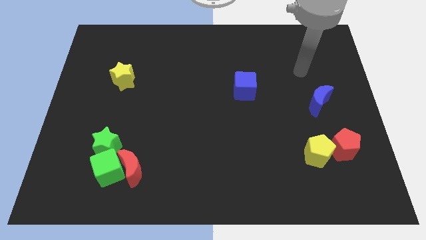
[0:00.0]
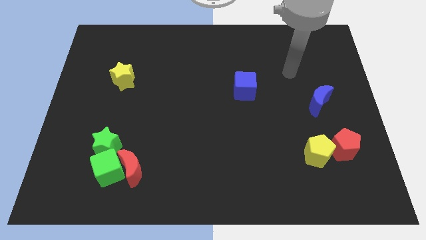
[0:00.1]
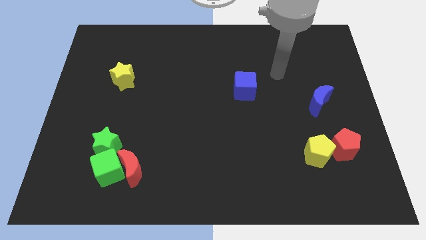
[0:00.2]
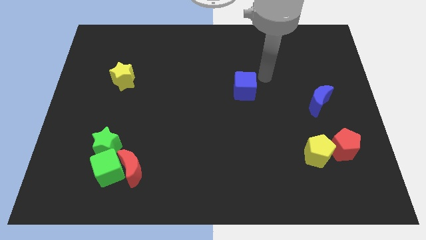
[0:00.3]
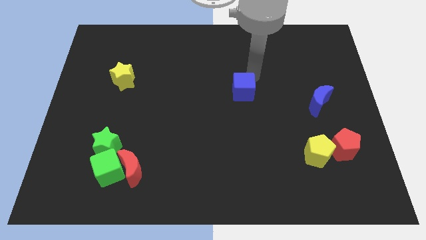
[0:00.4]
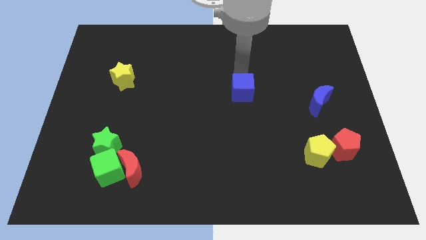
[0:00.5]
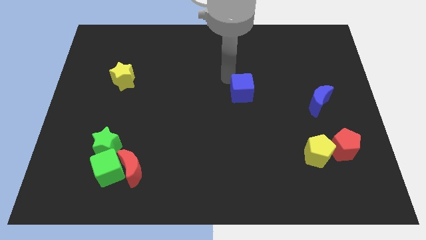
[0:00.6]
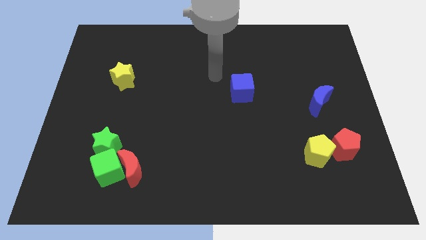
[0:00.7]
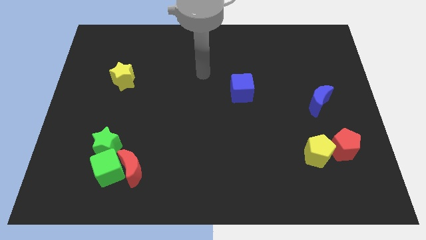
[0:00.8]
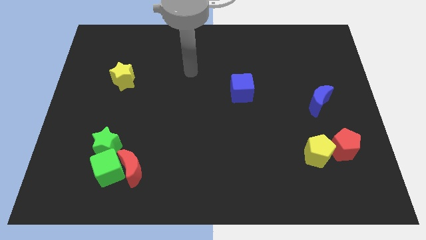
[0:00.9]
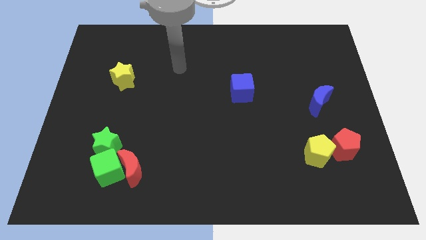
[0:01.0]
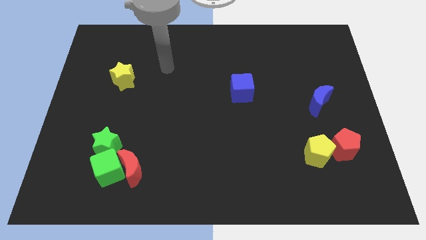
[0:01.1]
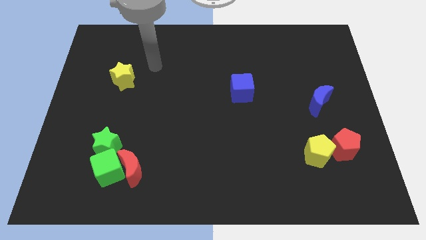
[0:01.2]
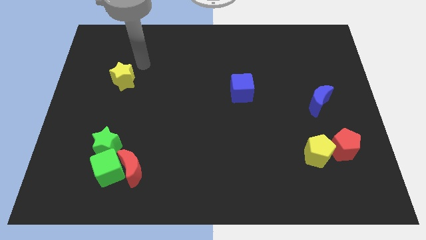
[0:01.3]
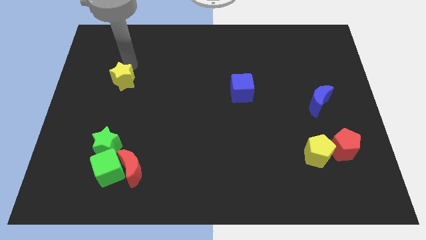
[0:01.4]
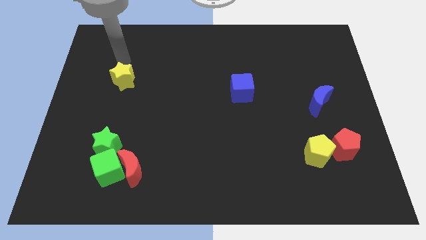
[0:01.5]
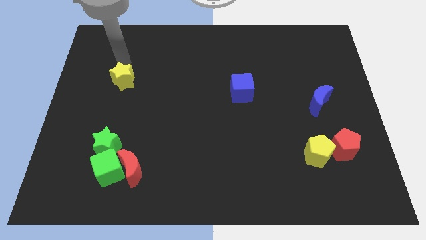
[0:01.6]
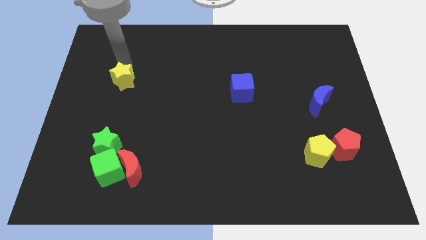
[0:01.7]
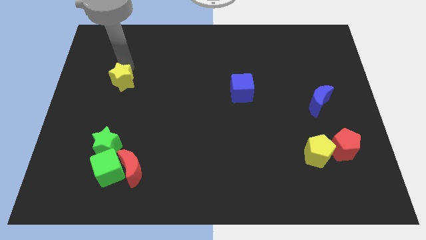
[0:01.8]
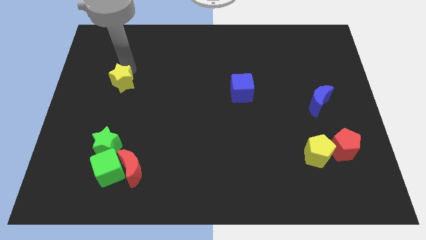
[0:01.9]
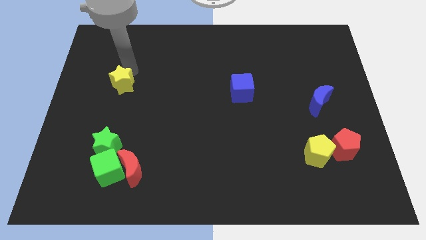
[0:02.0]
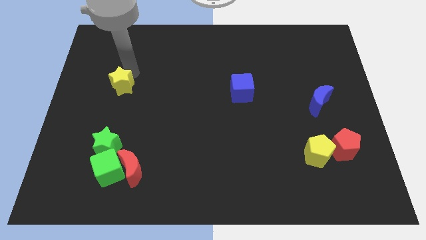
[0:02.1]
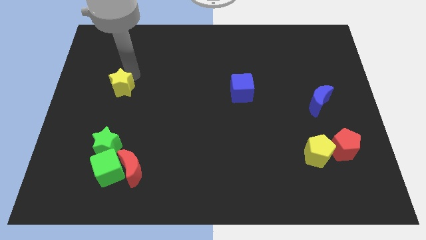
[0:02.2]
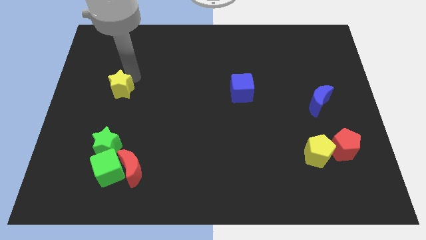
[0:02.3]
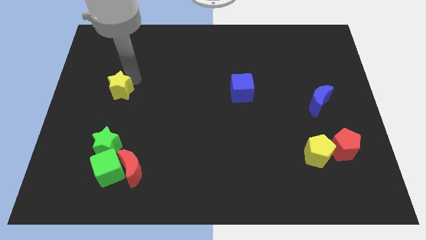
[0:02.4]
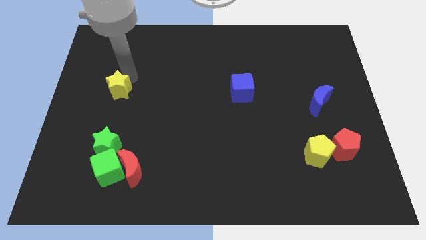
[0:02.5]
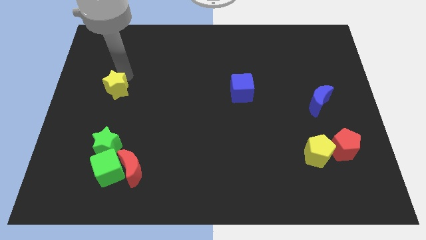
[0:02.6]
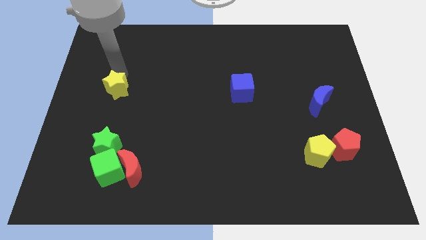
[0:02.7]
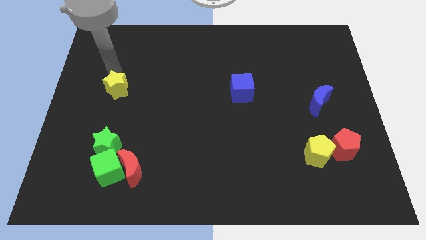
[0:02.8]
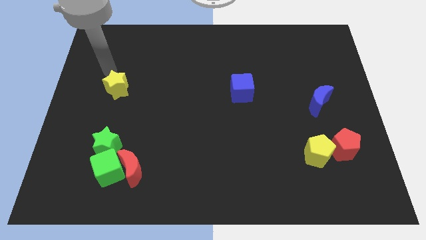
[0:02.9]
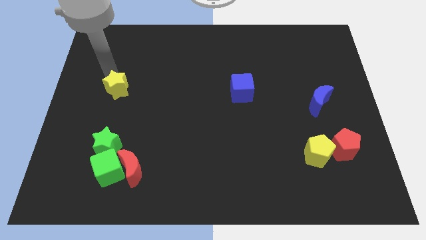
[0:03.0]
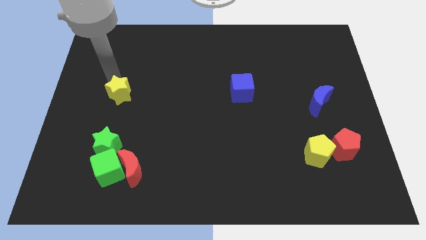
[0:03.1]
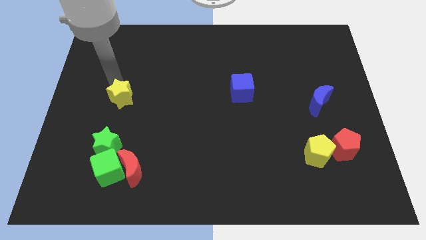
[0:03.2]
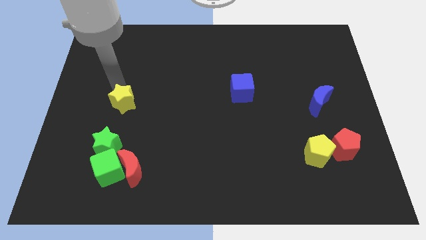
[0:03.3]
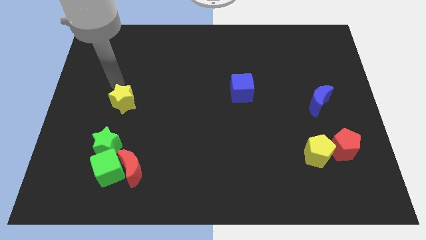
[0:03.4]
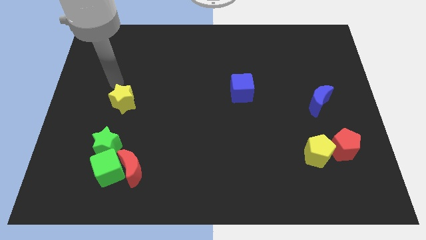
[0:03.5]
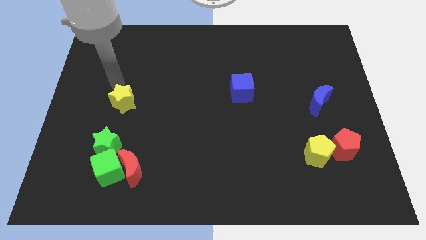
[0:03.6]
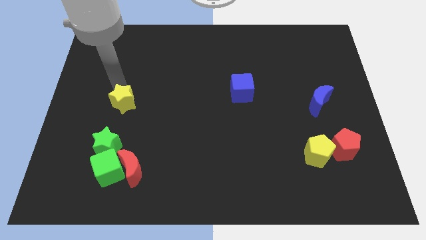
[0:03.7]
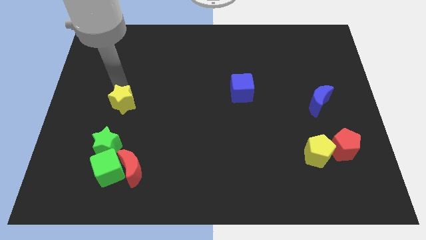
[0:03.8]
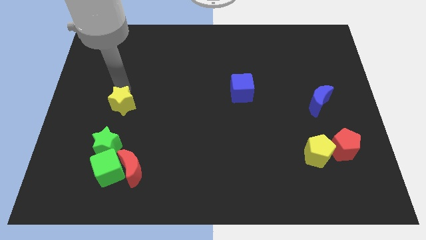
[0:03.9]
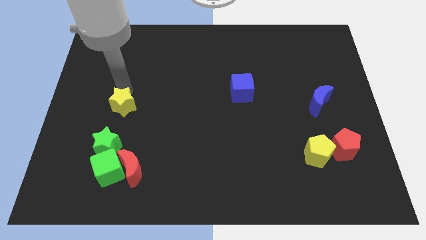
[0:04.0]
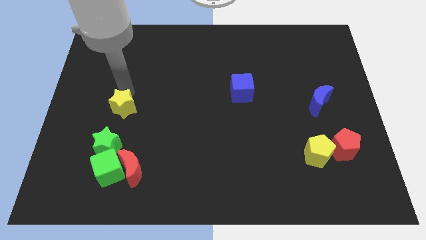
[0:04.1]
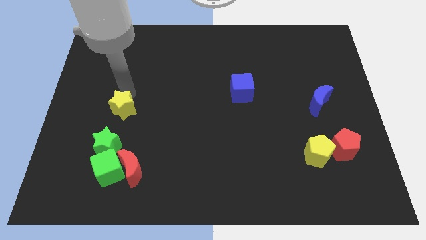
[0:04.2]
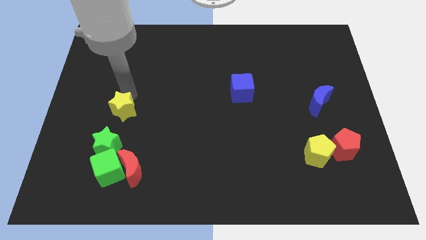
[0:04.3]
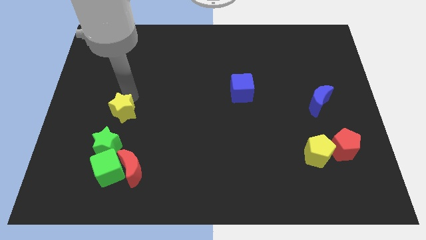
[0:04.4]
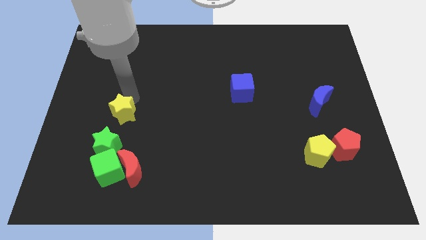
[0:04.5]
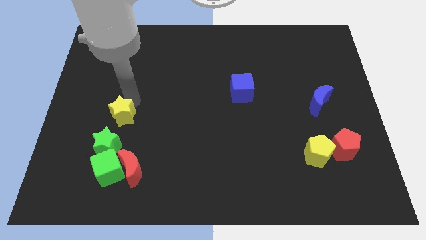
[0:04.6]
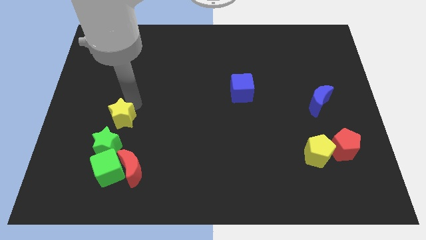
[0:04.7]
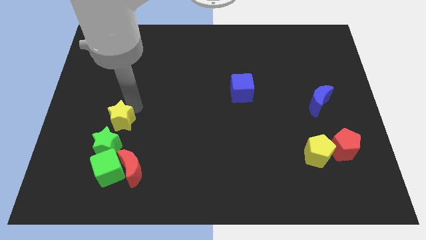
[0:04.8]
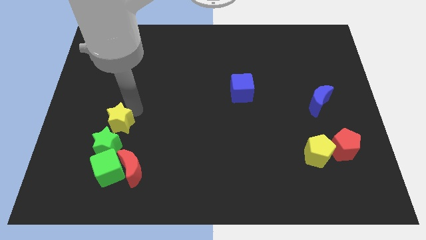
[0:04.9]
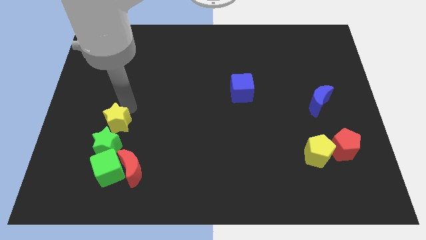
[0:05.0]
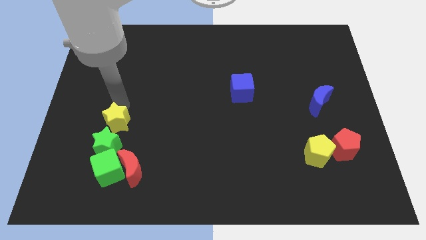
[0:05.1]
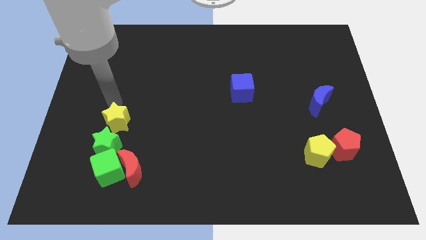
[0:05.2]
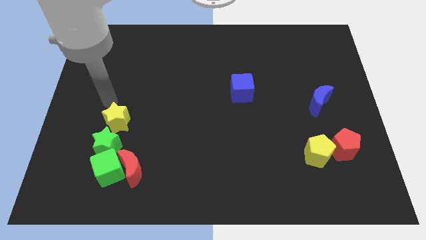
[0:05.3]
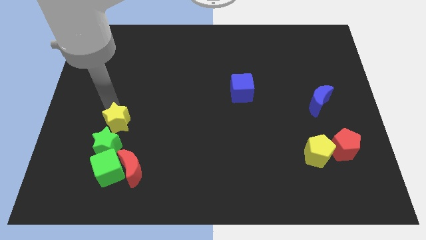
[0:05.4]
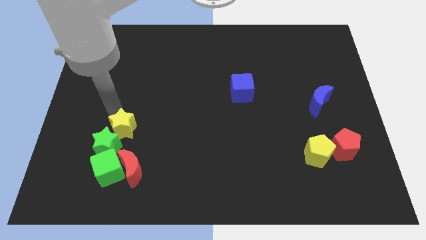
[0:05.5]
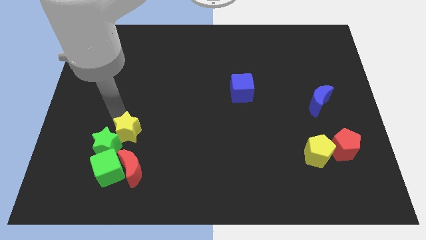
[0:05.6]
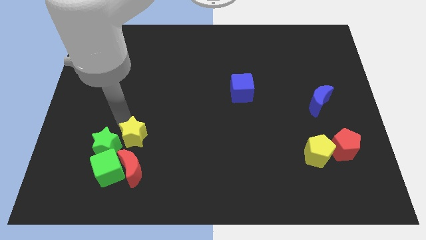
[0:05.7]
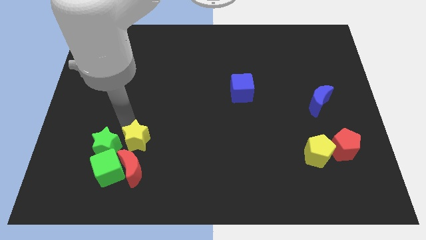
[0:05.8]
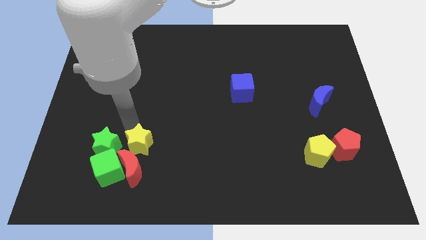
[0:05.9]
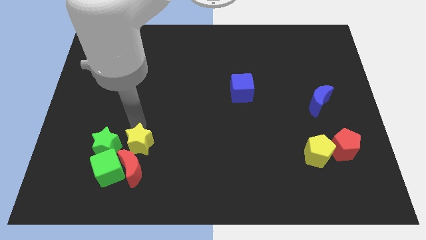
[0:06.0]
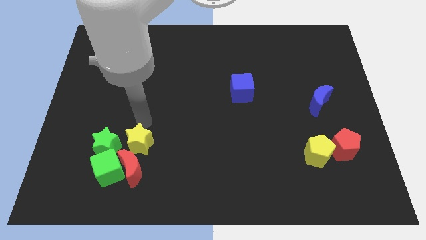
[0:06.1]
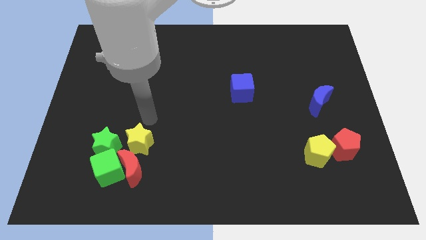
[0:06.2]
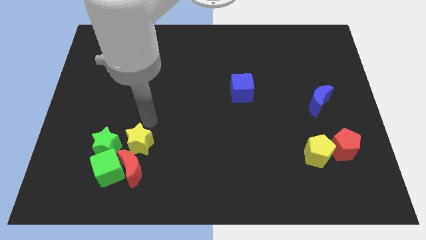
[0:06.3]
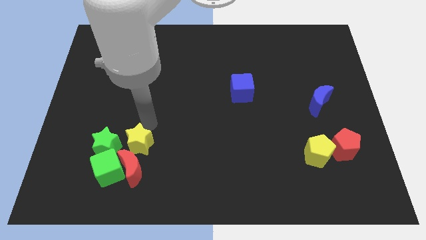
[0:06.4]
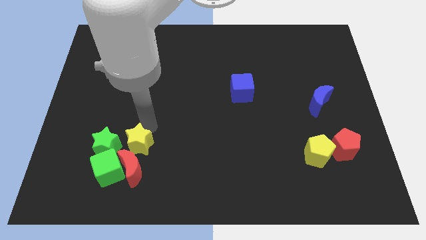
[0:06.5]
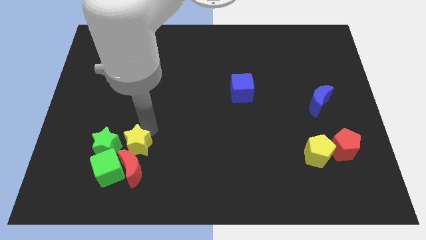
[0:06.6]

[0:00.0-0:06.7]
move the yellow star to the red moon
